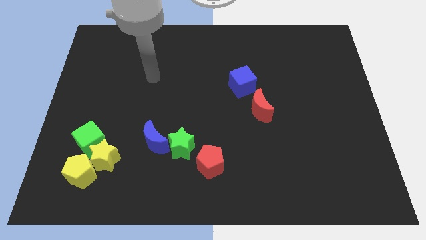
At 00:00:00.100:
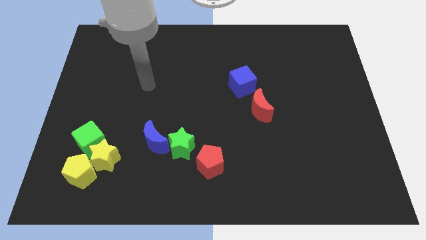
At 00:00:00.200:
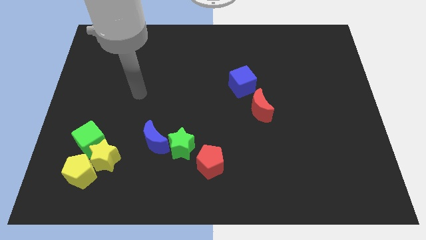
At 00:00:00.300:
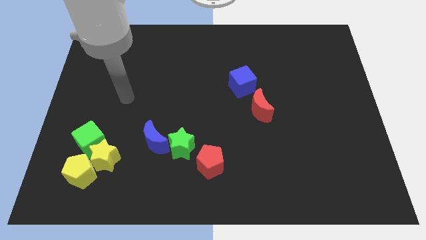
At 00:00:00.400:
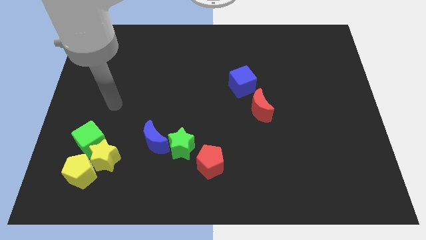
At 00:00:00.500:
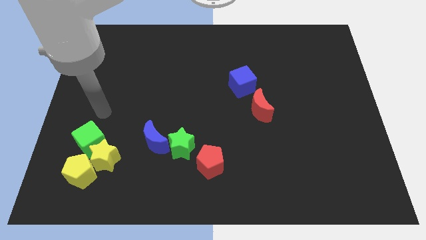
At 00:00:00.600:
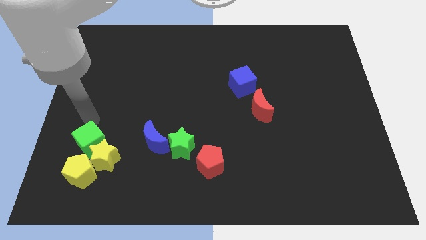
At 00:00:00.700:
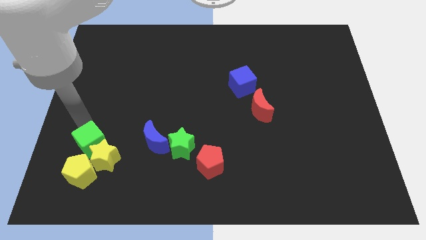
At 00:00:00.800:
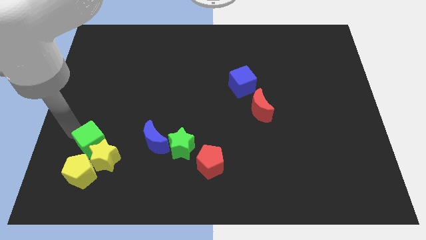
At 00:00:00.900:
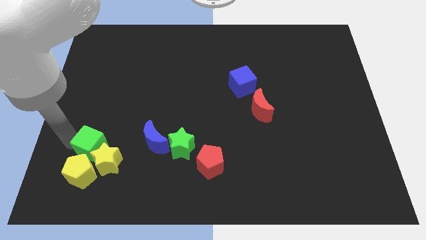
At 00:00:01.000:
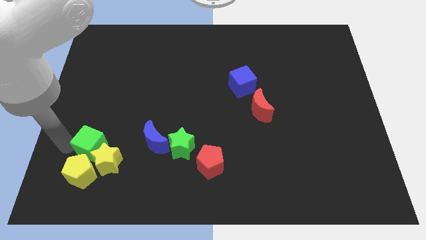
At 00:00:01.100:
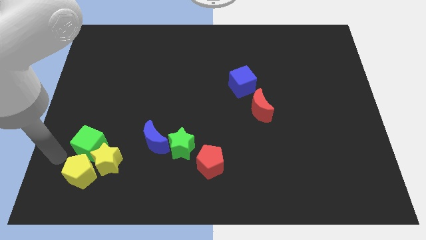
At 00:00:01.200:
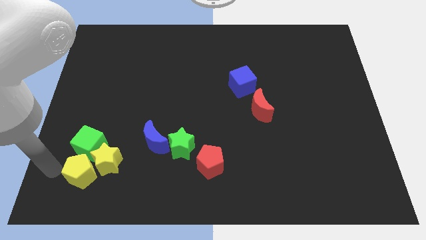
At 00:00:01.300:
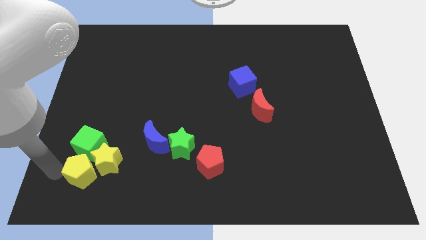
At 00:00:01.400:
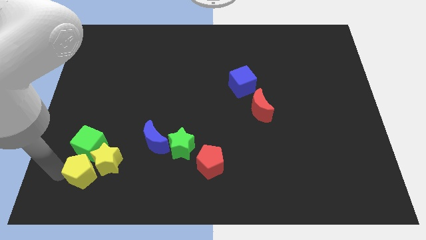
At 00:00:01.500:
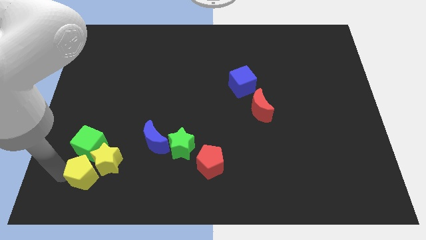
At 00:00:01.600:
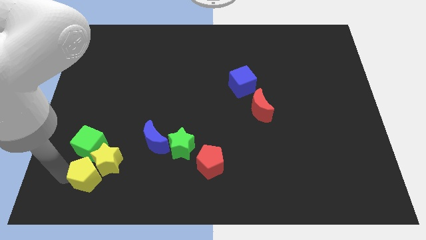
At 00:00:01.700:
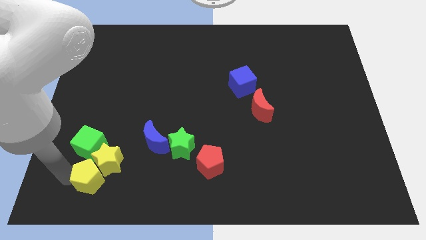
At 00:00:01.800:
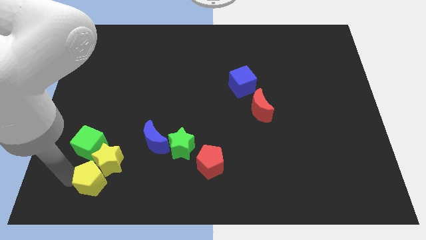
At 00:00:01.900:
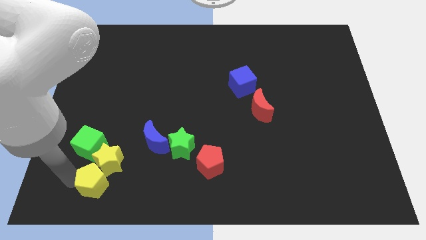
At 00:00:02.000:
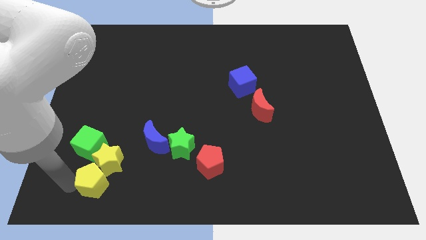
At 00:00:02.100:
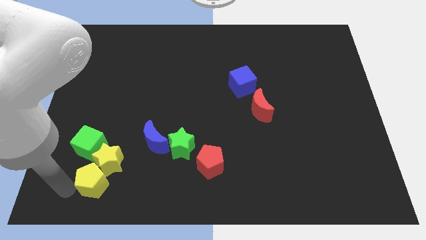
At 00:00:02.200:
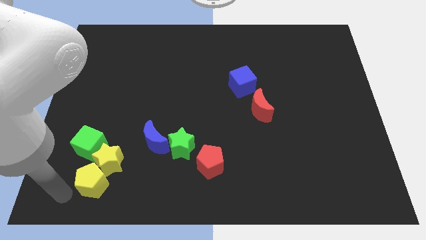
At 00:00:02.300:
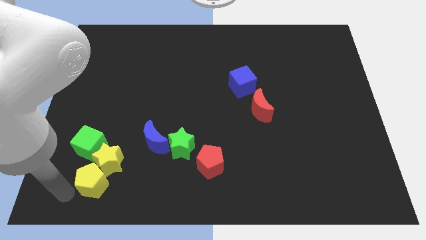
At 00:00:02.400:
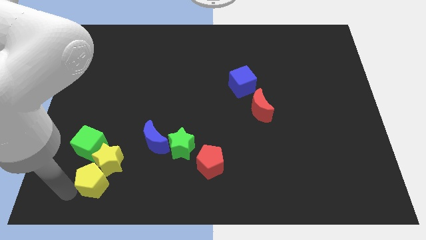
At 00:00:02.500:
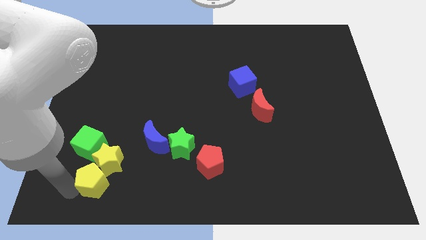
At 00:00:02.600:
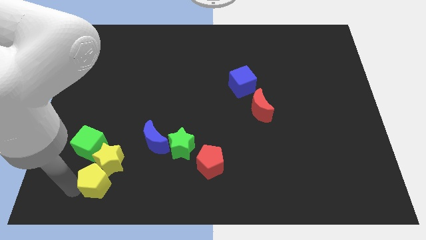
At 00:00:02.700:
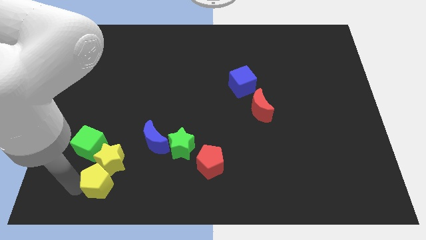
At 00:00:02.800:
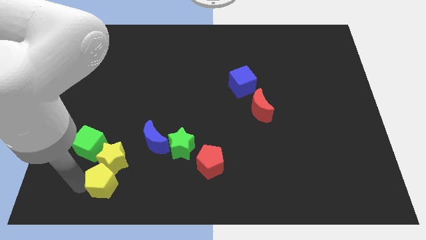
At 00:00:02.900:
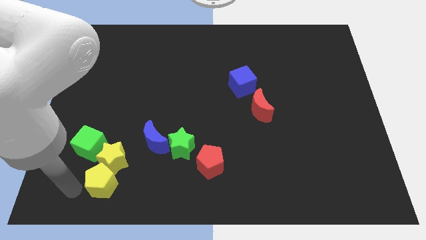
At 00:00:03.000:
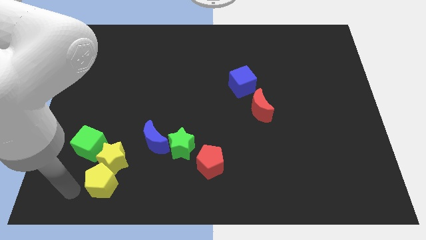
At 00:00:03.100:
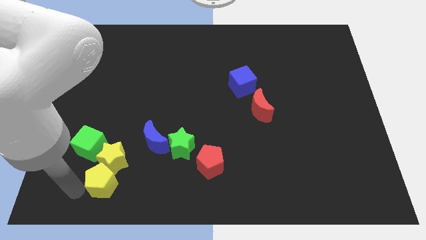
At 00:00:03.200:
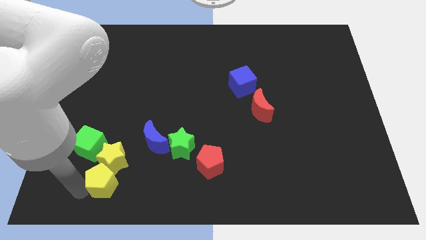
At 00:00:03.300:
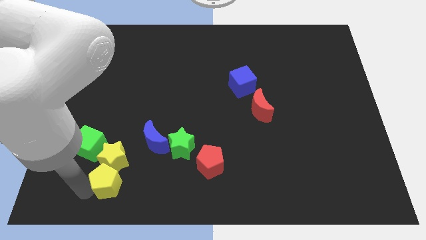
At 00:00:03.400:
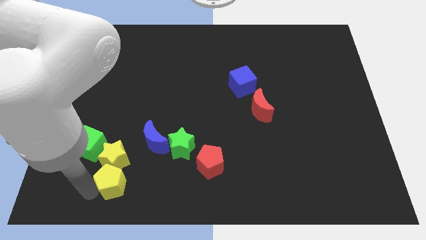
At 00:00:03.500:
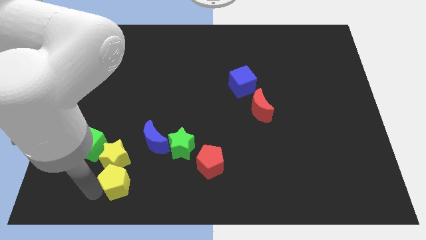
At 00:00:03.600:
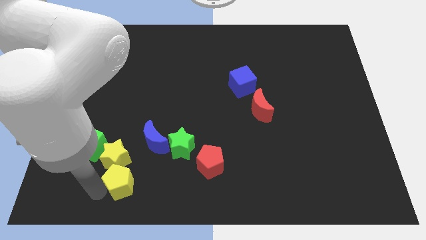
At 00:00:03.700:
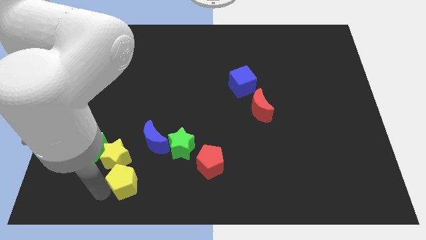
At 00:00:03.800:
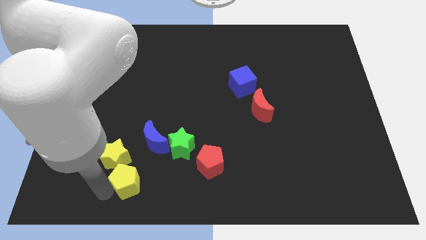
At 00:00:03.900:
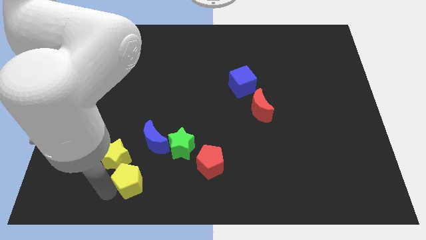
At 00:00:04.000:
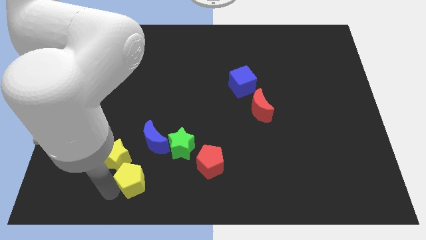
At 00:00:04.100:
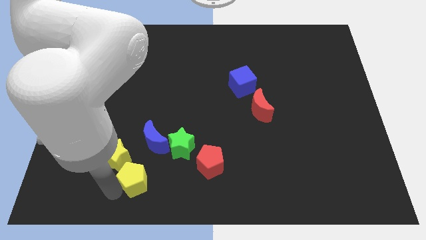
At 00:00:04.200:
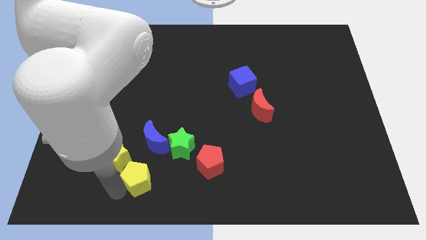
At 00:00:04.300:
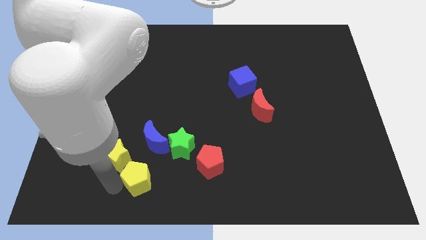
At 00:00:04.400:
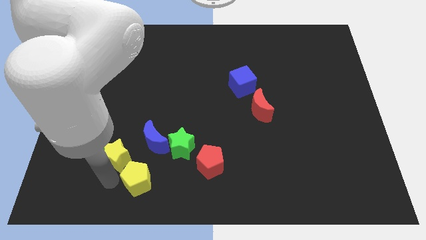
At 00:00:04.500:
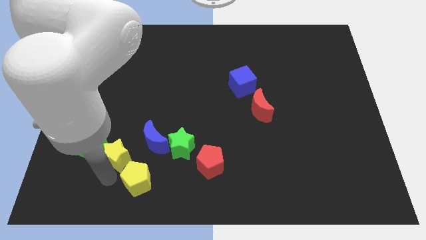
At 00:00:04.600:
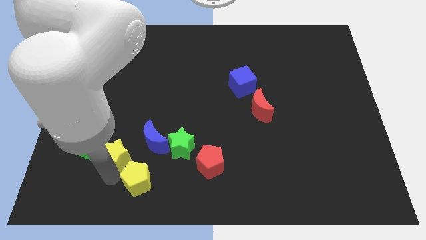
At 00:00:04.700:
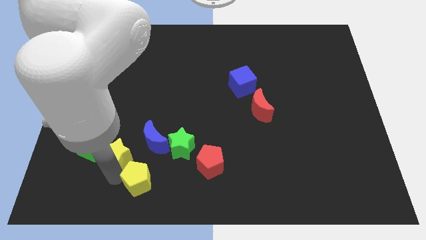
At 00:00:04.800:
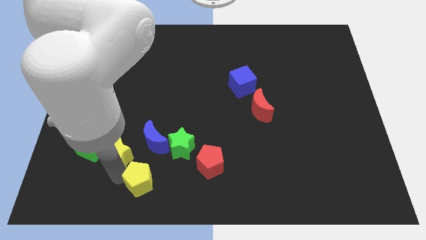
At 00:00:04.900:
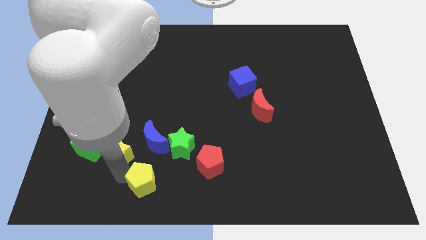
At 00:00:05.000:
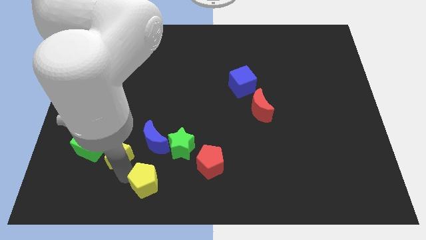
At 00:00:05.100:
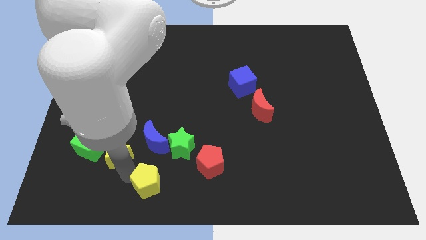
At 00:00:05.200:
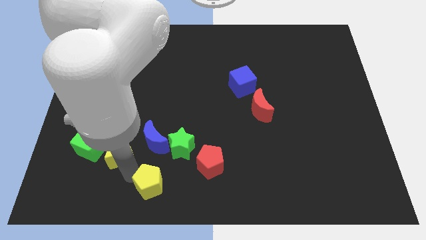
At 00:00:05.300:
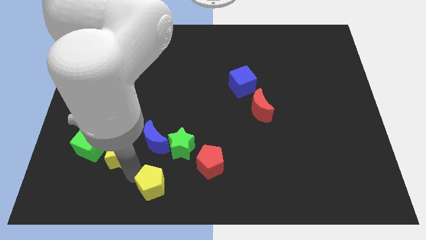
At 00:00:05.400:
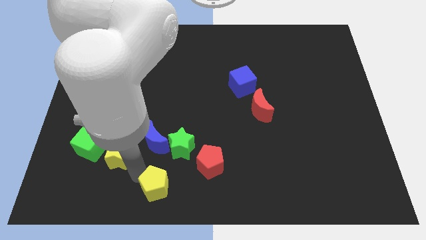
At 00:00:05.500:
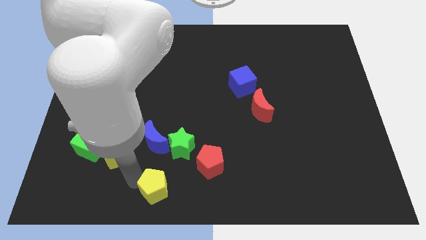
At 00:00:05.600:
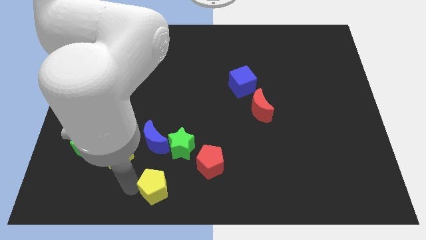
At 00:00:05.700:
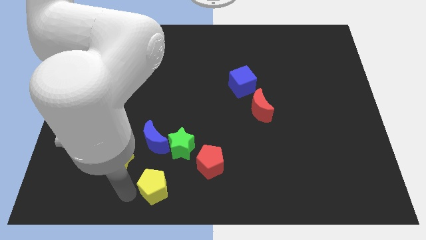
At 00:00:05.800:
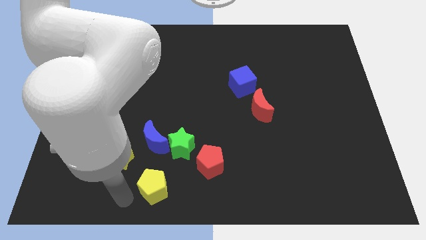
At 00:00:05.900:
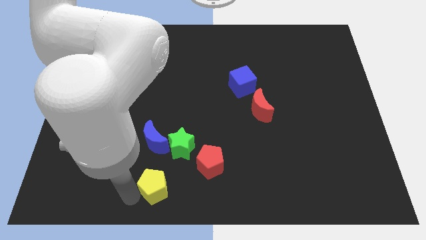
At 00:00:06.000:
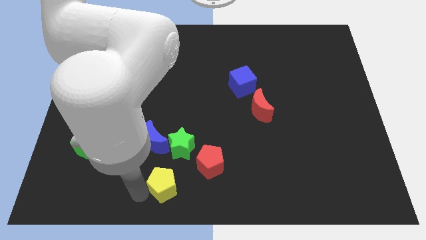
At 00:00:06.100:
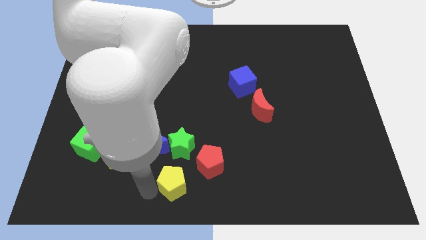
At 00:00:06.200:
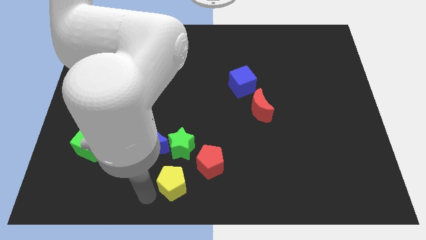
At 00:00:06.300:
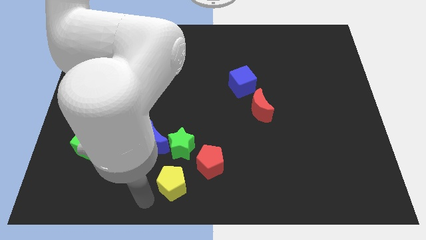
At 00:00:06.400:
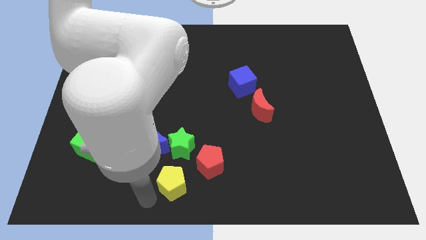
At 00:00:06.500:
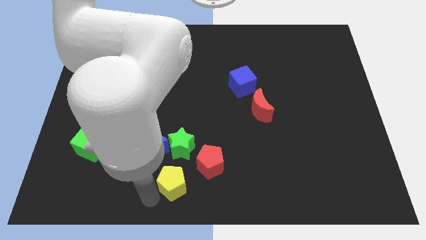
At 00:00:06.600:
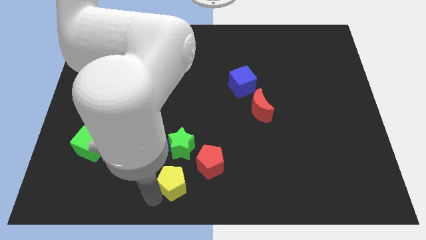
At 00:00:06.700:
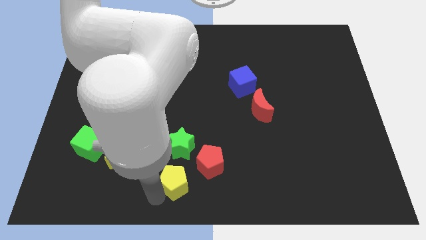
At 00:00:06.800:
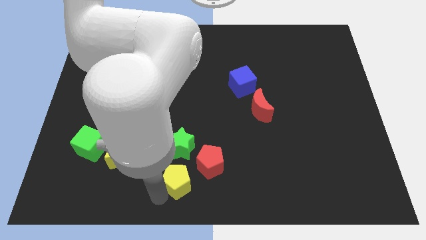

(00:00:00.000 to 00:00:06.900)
slide the yellow pentagon to the right

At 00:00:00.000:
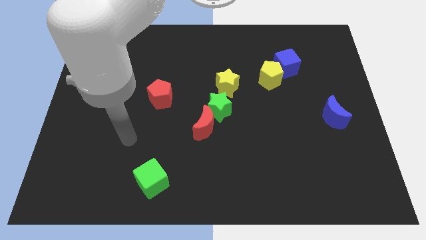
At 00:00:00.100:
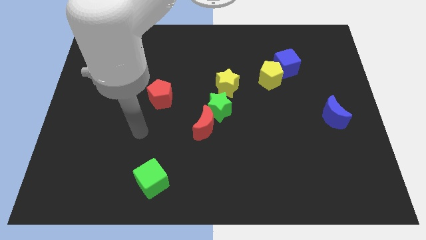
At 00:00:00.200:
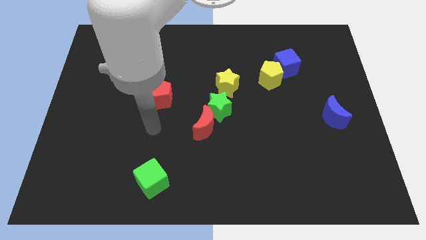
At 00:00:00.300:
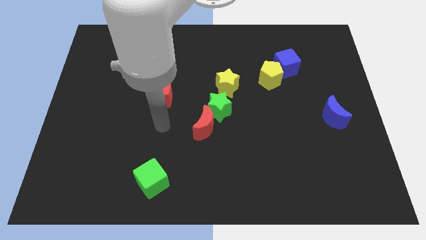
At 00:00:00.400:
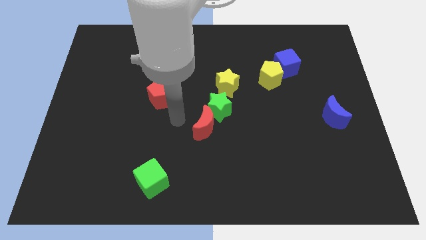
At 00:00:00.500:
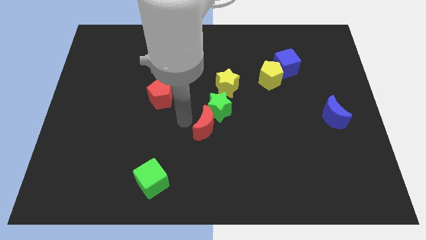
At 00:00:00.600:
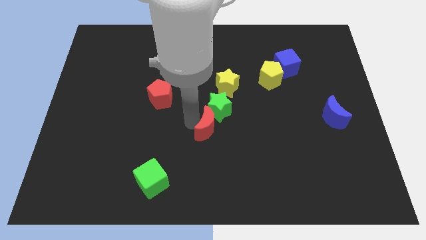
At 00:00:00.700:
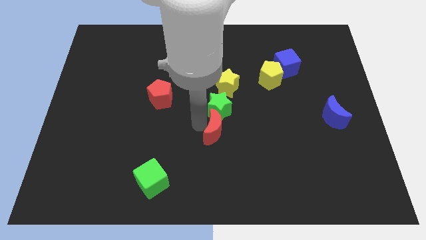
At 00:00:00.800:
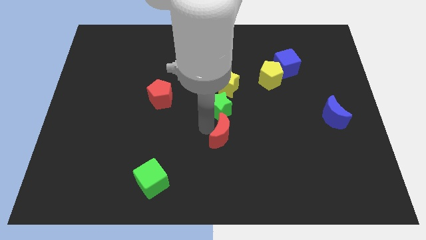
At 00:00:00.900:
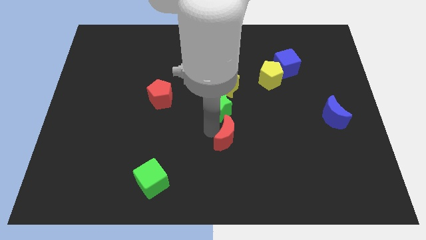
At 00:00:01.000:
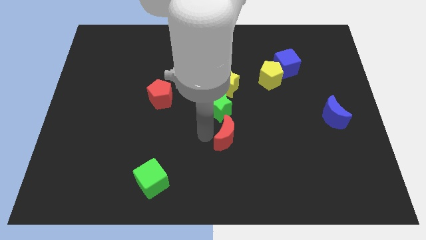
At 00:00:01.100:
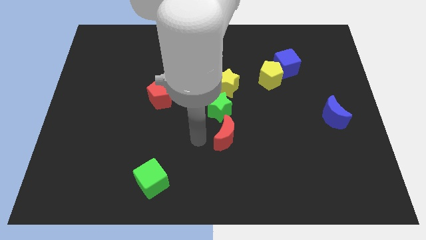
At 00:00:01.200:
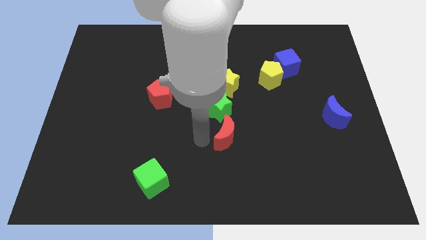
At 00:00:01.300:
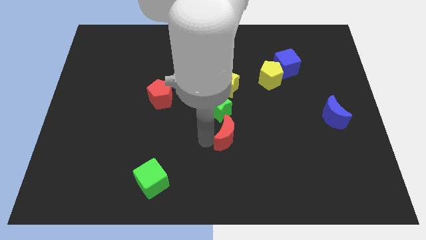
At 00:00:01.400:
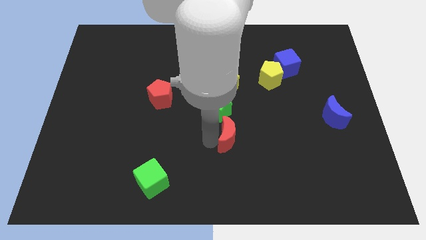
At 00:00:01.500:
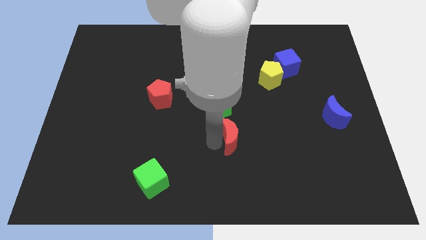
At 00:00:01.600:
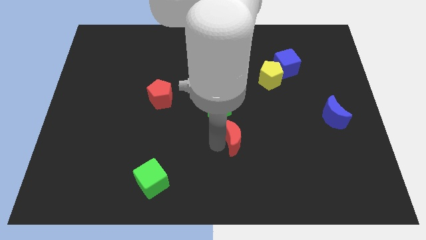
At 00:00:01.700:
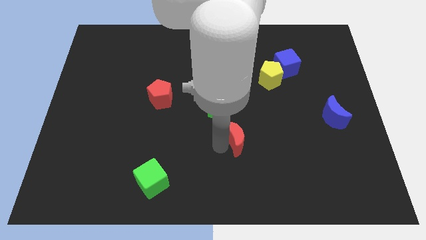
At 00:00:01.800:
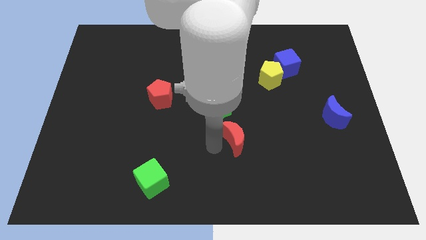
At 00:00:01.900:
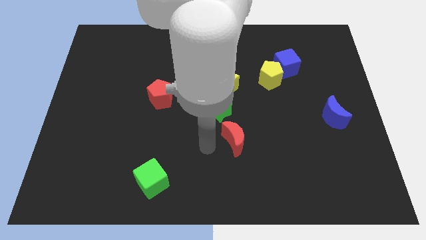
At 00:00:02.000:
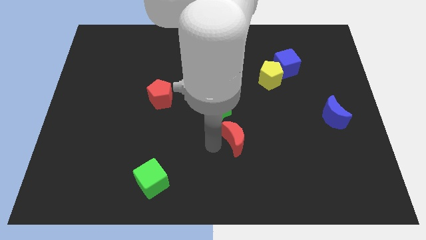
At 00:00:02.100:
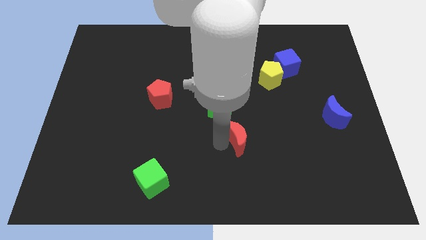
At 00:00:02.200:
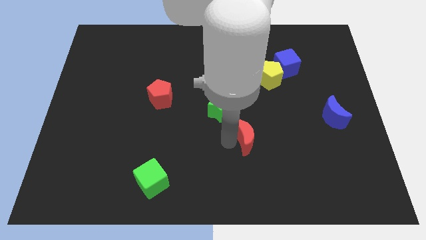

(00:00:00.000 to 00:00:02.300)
move the red moon a little right
